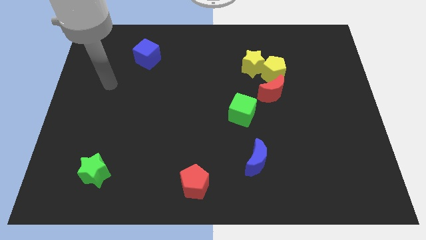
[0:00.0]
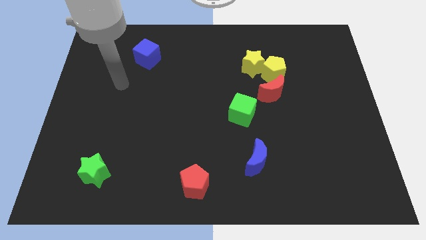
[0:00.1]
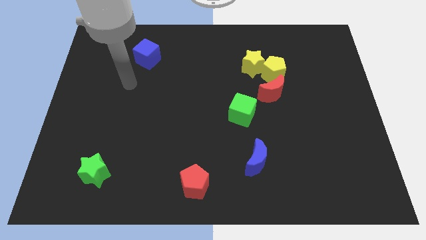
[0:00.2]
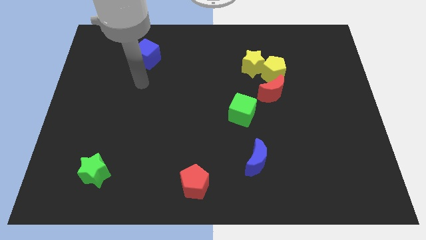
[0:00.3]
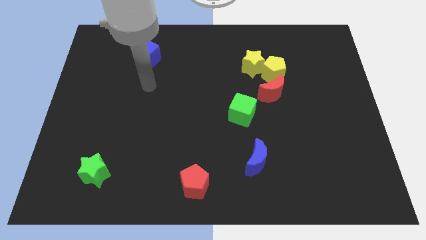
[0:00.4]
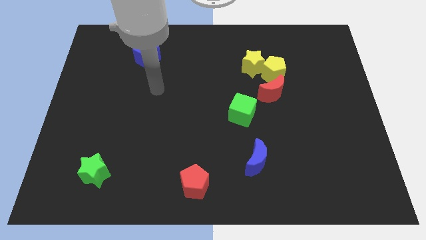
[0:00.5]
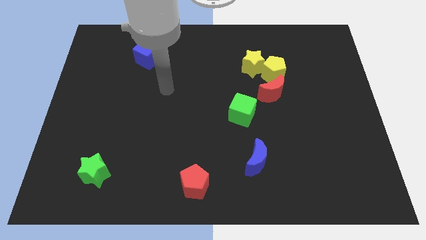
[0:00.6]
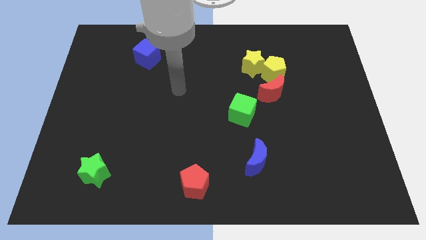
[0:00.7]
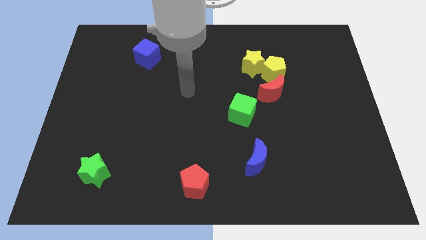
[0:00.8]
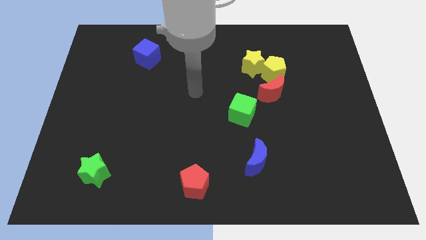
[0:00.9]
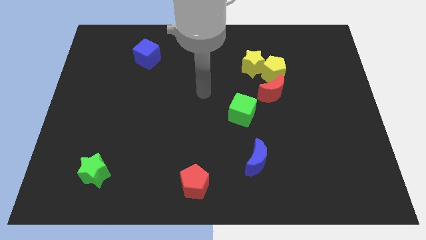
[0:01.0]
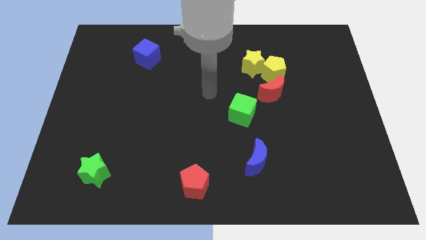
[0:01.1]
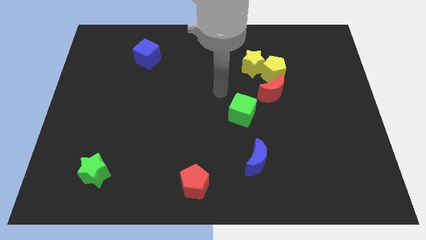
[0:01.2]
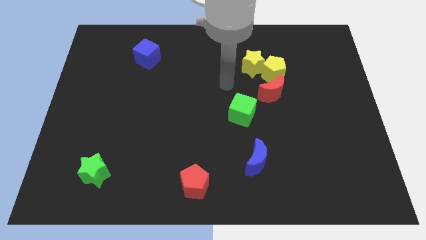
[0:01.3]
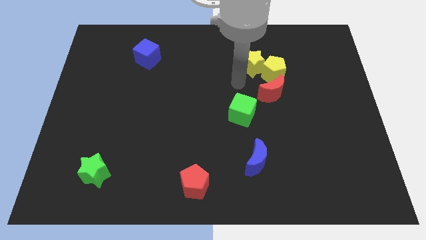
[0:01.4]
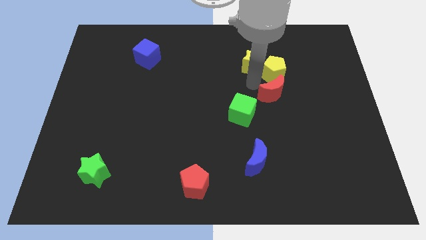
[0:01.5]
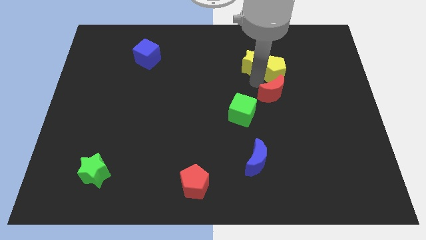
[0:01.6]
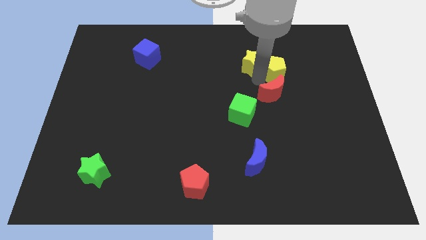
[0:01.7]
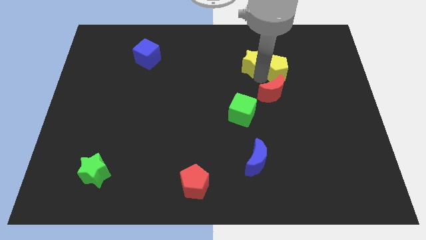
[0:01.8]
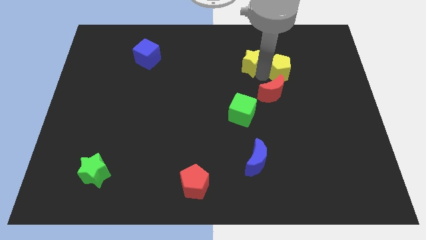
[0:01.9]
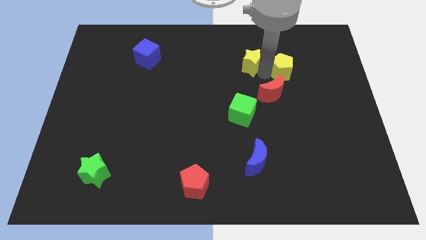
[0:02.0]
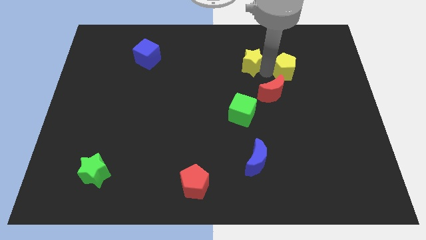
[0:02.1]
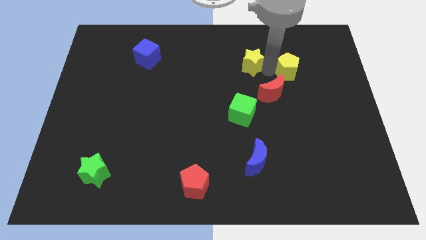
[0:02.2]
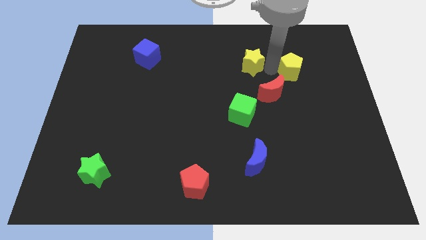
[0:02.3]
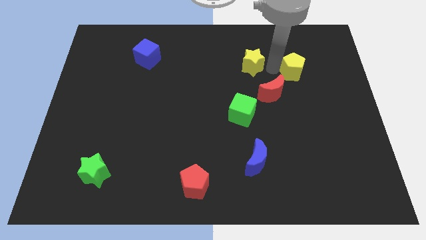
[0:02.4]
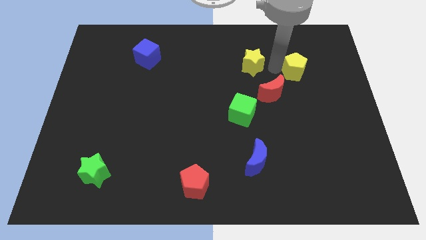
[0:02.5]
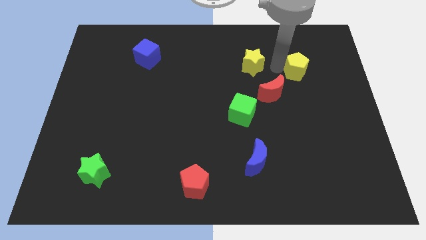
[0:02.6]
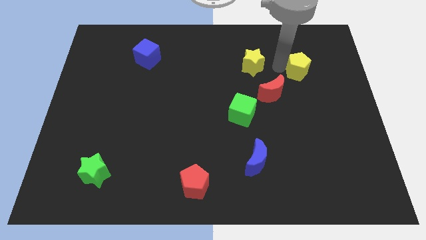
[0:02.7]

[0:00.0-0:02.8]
pull the yellow pentagon apart from the yellow star and red moon

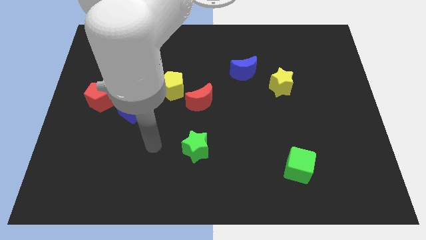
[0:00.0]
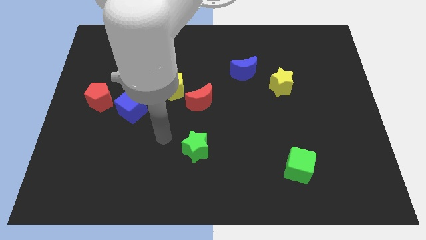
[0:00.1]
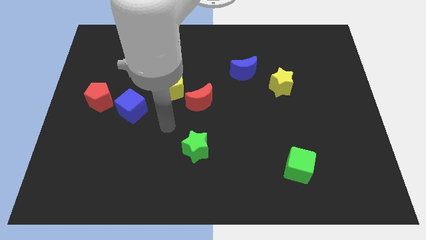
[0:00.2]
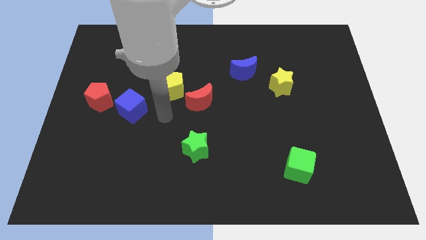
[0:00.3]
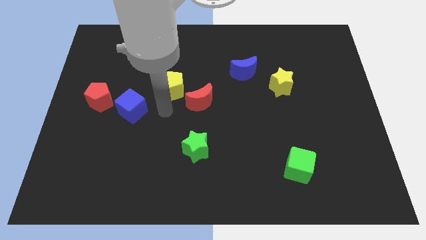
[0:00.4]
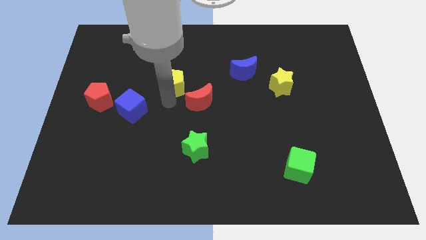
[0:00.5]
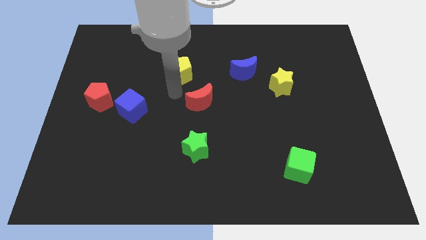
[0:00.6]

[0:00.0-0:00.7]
separate the red moon from the yellow pentagon

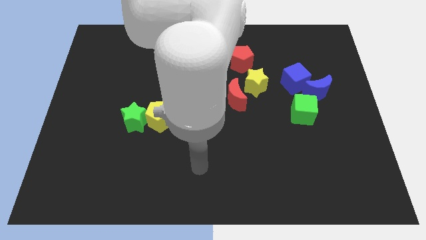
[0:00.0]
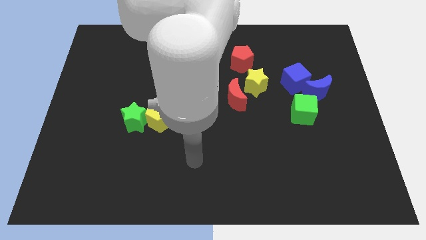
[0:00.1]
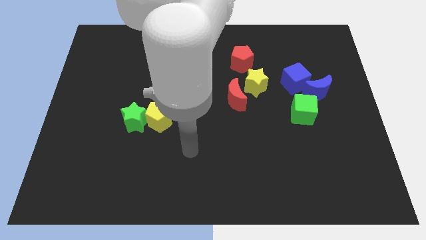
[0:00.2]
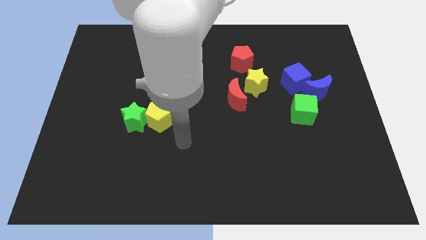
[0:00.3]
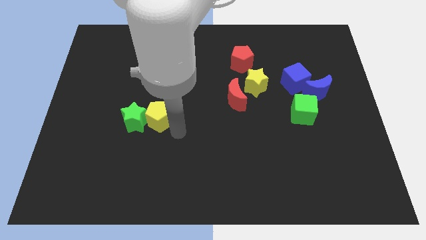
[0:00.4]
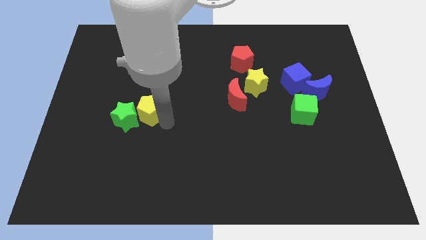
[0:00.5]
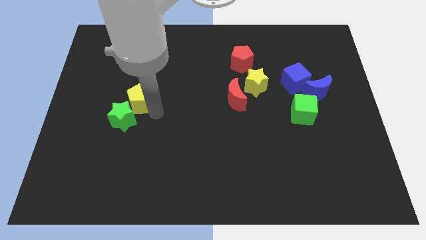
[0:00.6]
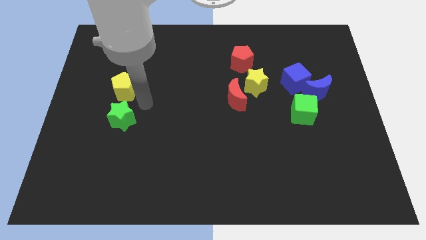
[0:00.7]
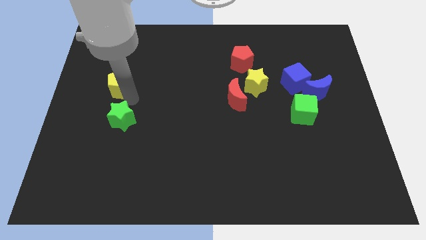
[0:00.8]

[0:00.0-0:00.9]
separate the green star from the yellow pentagon

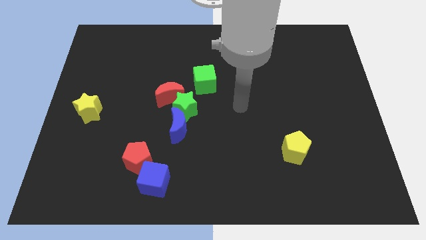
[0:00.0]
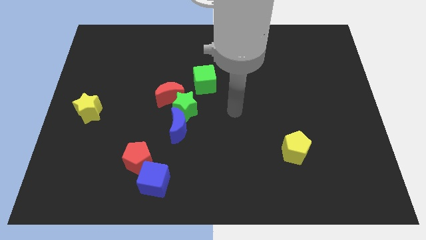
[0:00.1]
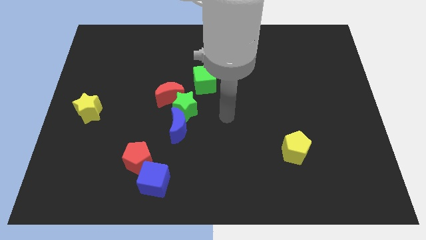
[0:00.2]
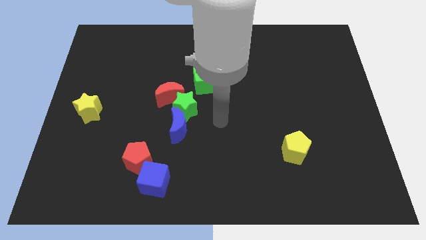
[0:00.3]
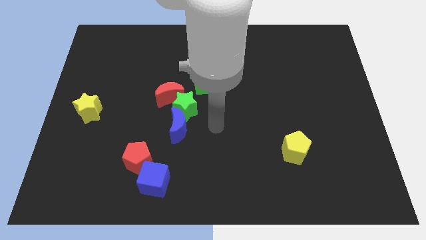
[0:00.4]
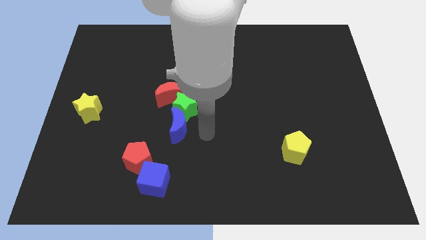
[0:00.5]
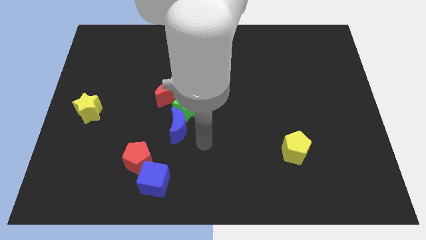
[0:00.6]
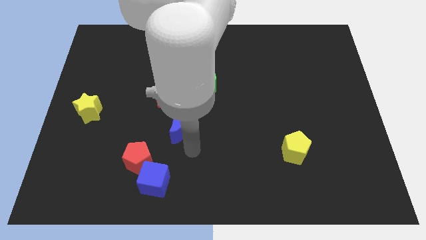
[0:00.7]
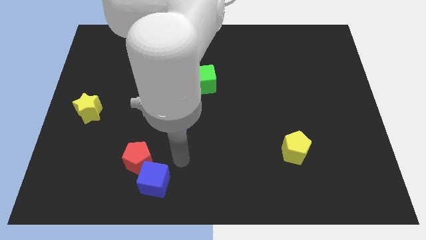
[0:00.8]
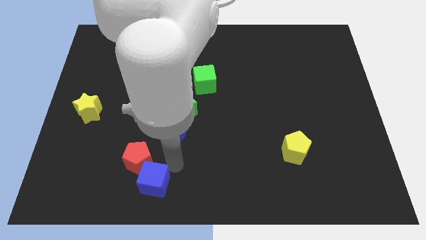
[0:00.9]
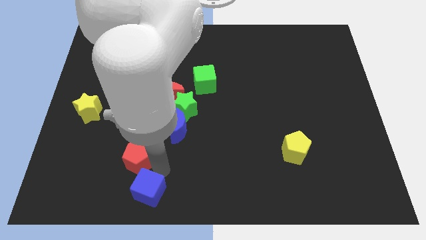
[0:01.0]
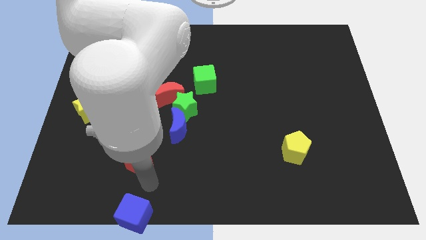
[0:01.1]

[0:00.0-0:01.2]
move the red pentagon away from the blue cube

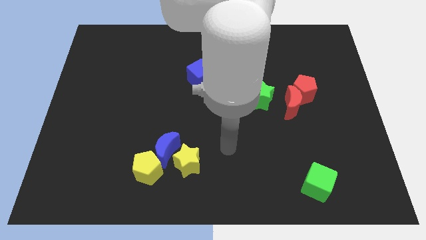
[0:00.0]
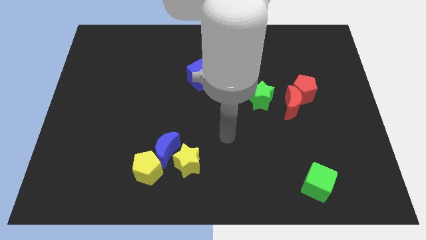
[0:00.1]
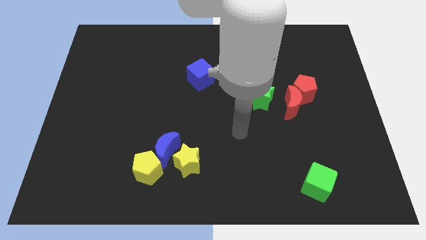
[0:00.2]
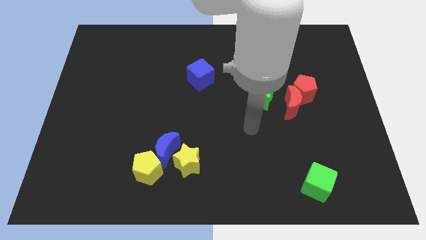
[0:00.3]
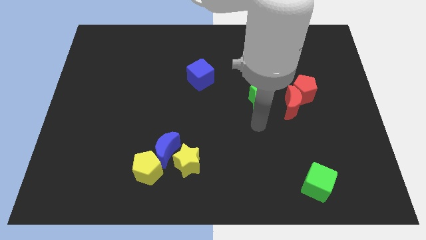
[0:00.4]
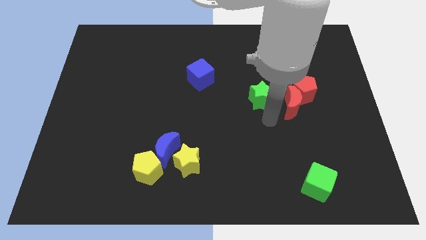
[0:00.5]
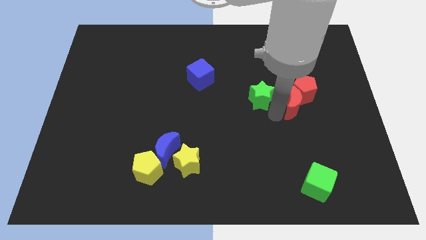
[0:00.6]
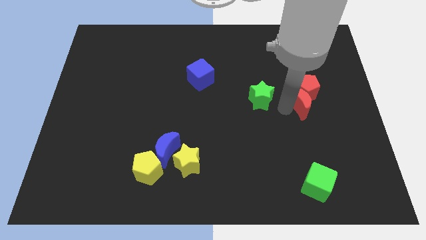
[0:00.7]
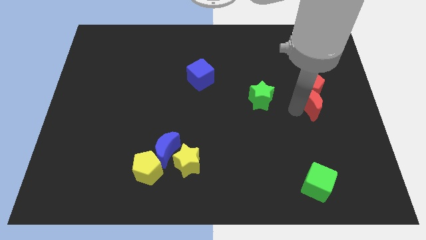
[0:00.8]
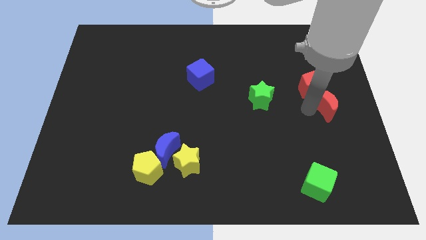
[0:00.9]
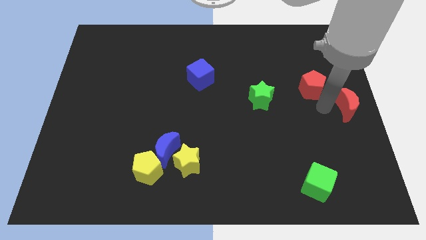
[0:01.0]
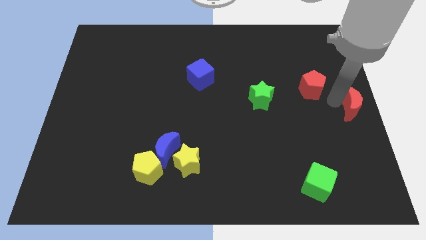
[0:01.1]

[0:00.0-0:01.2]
separate the red pentagon from the red moon

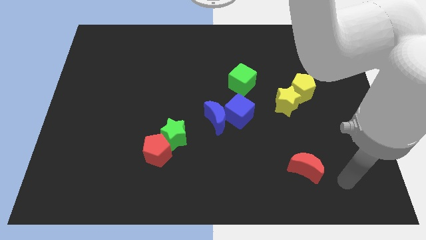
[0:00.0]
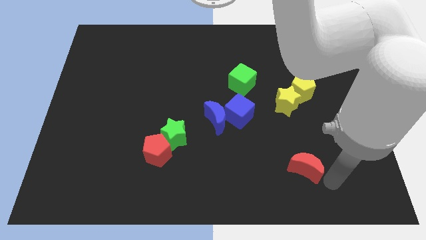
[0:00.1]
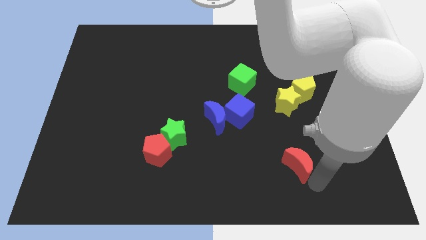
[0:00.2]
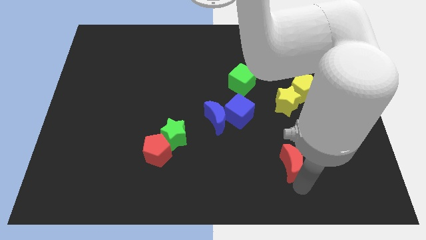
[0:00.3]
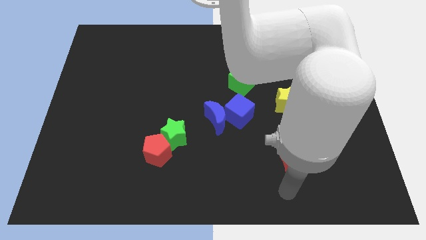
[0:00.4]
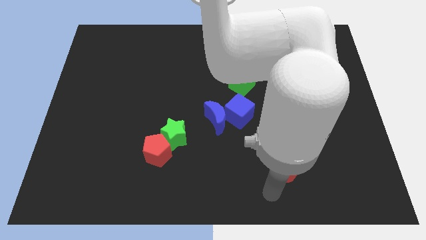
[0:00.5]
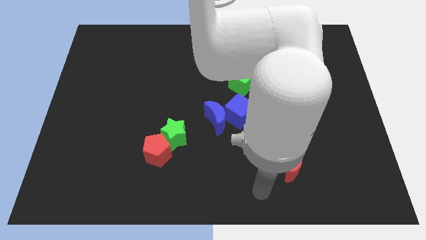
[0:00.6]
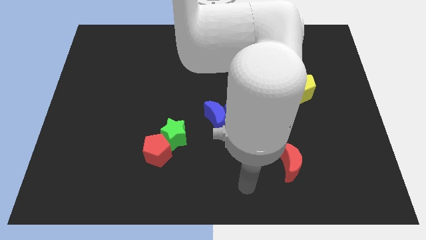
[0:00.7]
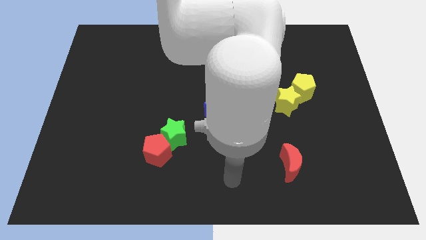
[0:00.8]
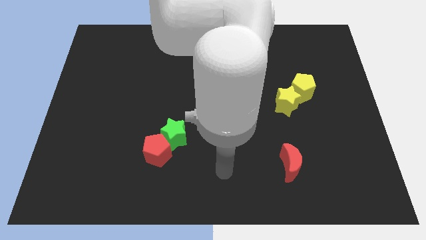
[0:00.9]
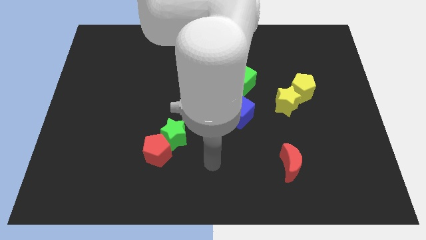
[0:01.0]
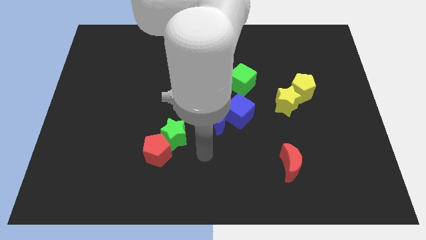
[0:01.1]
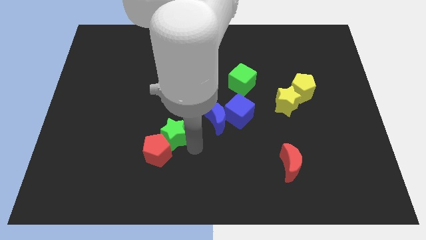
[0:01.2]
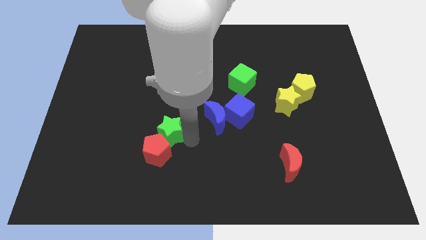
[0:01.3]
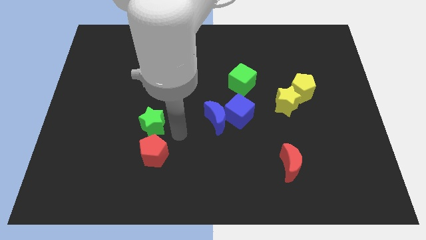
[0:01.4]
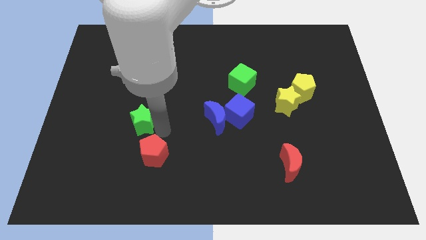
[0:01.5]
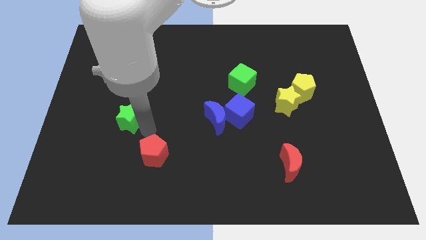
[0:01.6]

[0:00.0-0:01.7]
move the red pentagon away from the green star

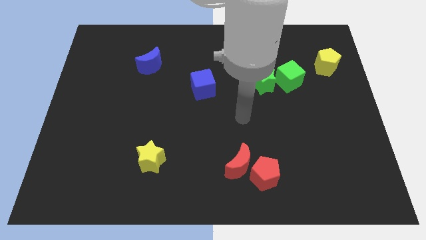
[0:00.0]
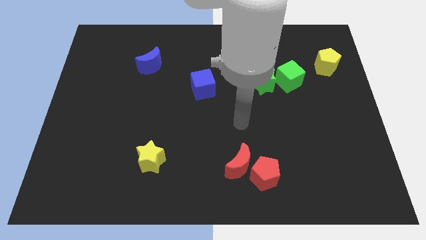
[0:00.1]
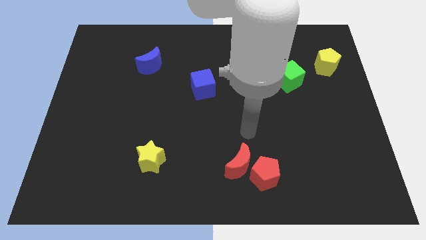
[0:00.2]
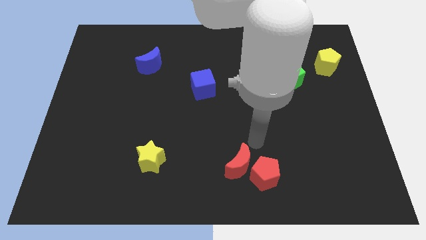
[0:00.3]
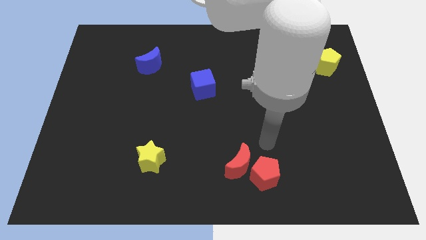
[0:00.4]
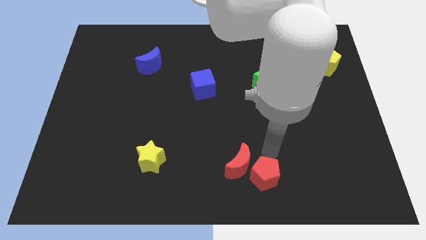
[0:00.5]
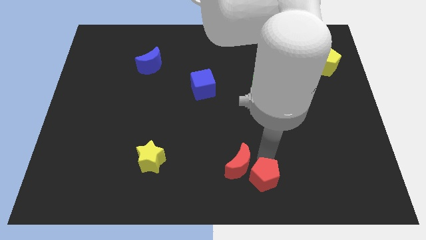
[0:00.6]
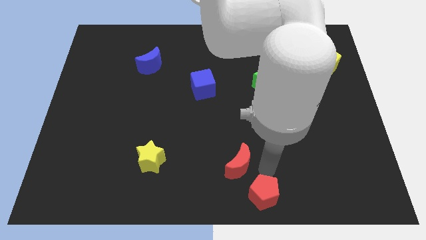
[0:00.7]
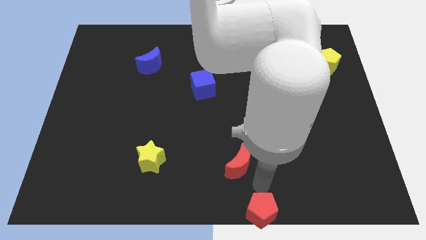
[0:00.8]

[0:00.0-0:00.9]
separate the red moon from the red pentagon
